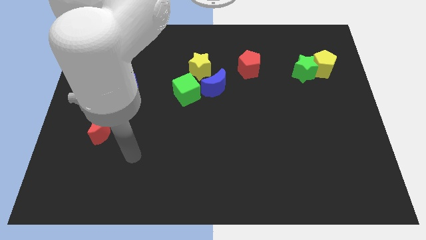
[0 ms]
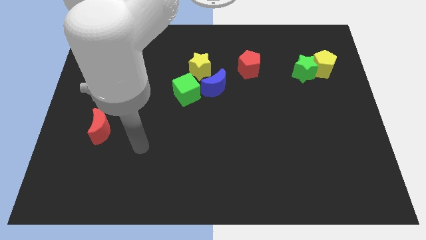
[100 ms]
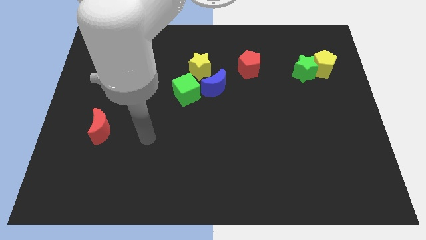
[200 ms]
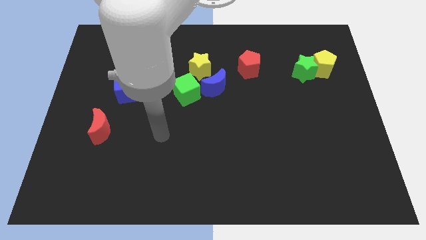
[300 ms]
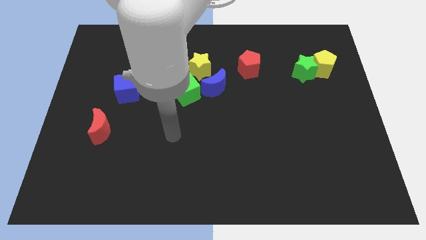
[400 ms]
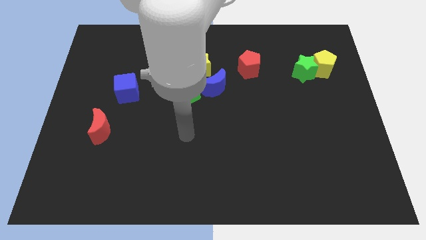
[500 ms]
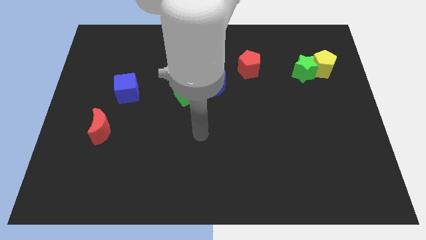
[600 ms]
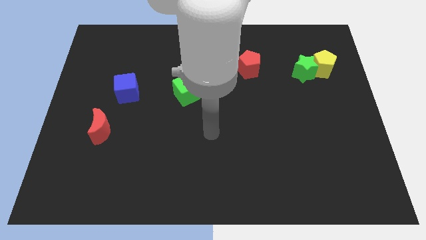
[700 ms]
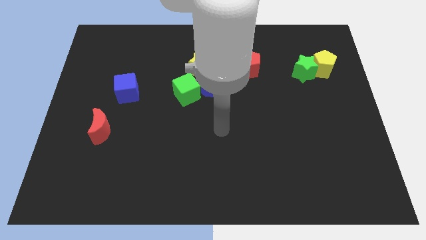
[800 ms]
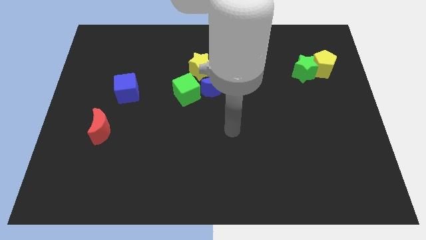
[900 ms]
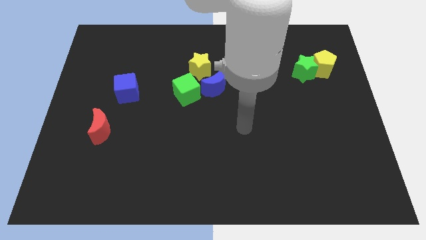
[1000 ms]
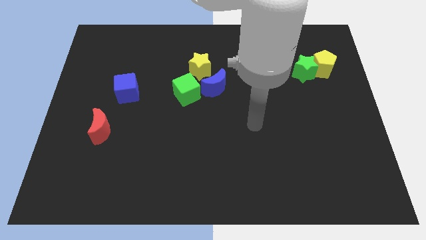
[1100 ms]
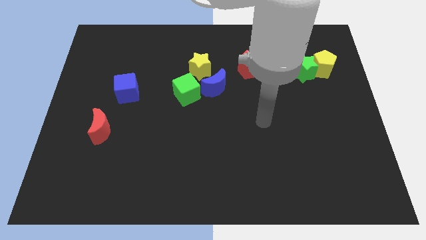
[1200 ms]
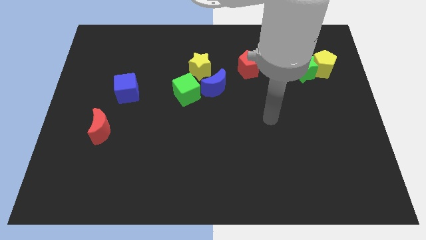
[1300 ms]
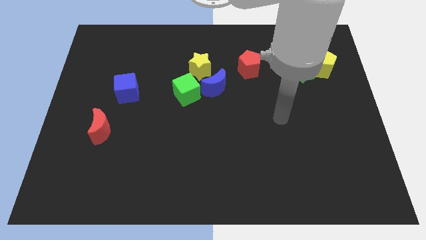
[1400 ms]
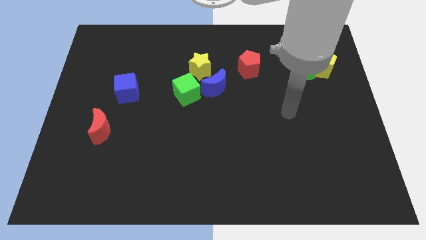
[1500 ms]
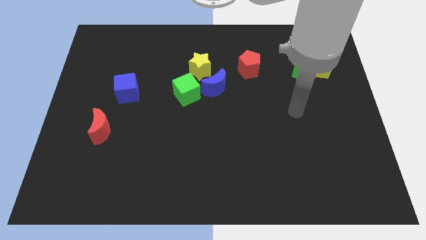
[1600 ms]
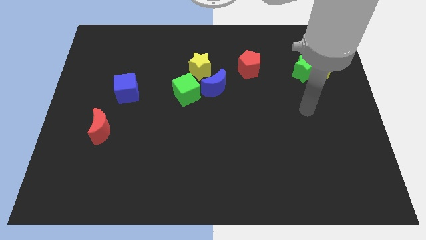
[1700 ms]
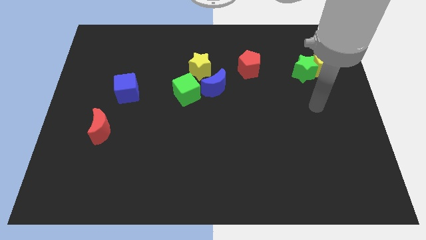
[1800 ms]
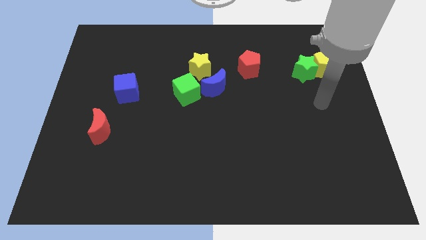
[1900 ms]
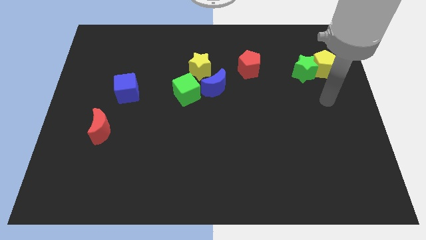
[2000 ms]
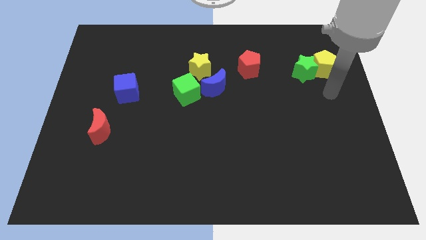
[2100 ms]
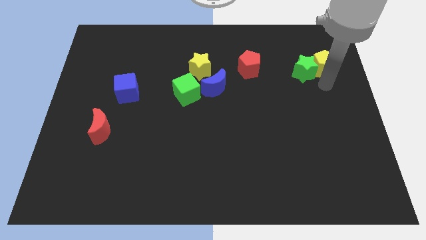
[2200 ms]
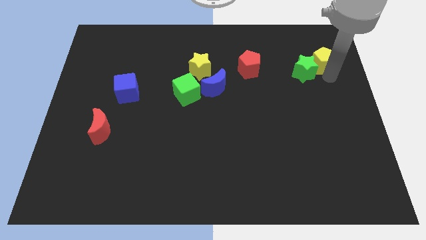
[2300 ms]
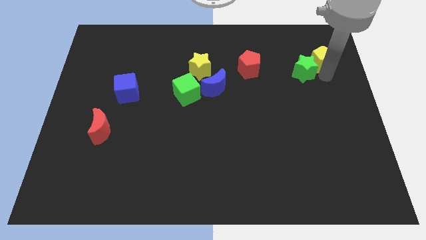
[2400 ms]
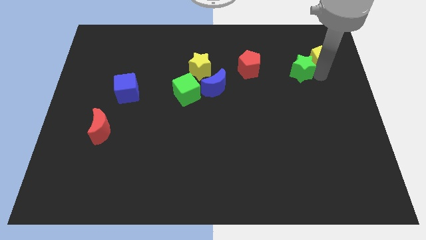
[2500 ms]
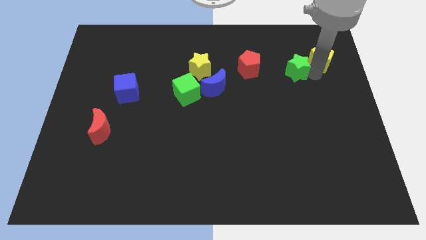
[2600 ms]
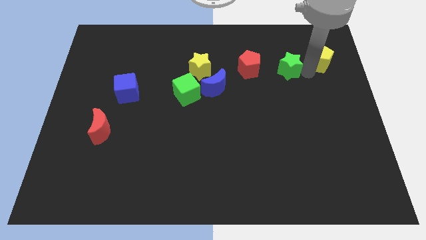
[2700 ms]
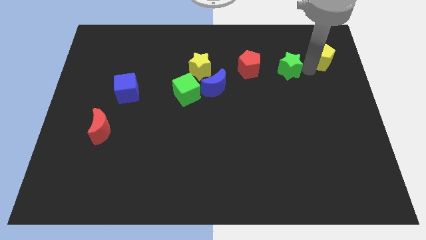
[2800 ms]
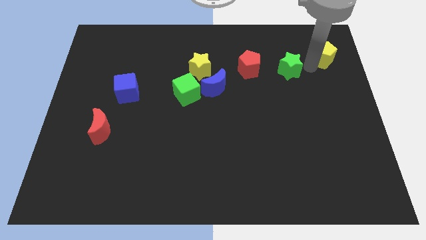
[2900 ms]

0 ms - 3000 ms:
pull the green star apart from the yellow pentagon

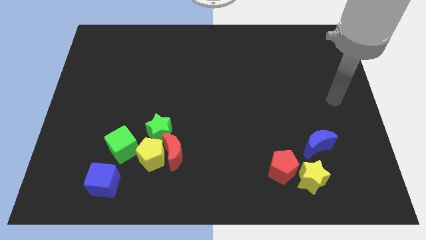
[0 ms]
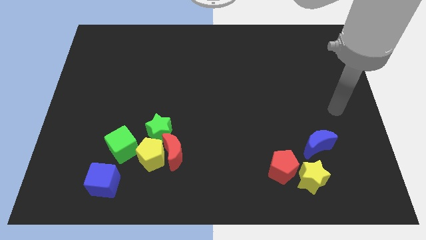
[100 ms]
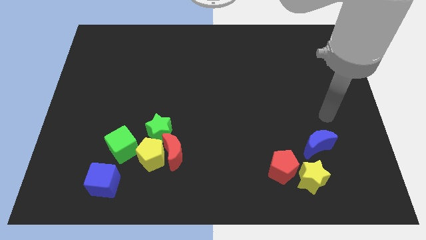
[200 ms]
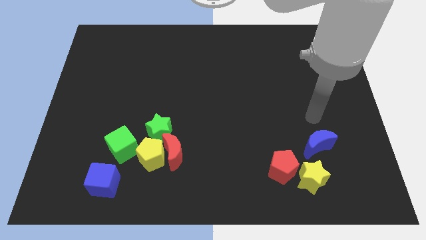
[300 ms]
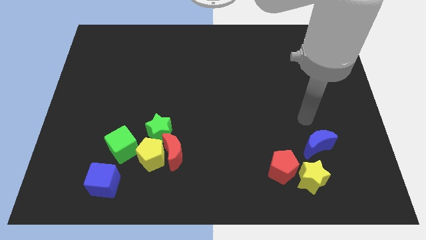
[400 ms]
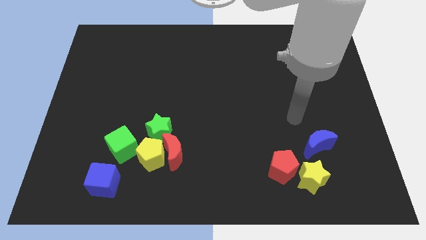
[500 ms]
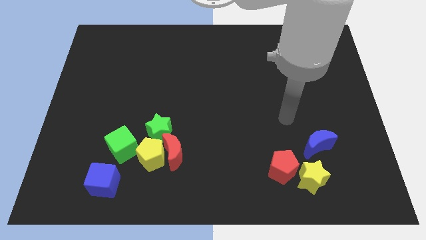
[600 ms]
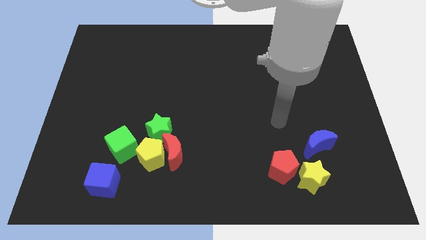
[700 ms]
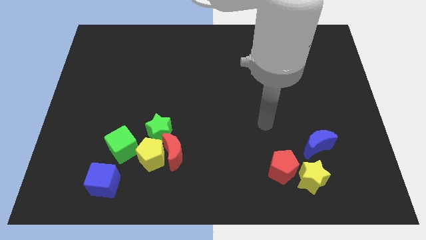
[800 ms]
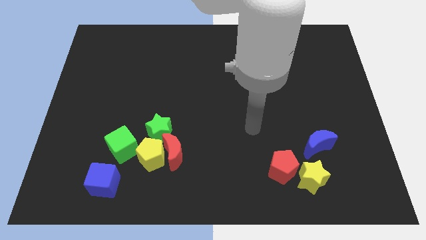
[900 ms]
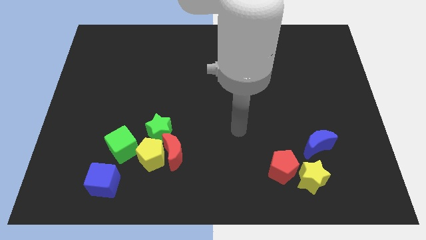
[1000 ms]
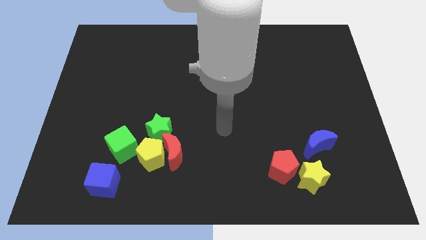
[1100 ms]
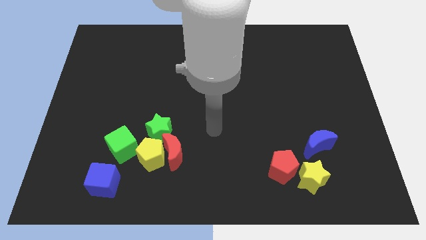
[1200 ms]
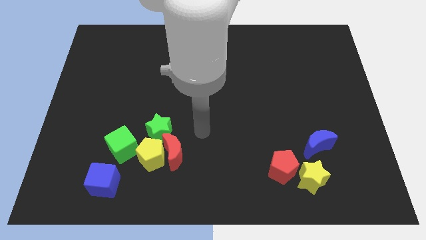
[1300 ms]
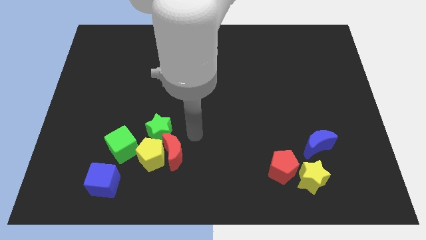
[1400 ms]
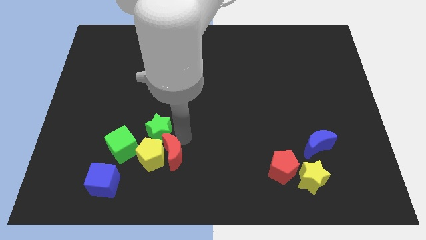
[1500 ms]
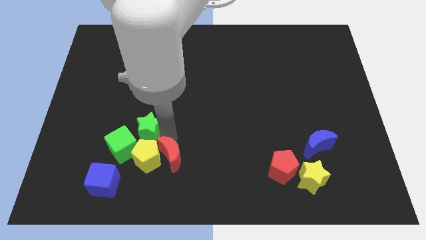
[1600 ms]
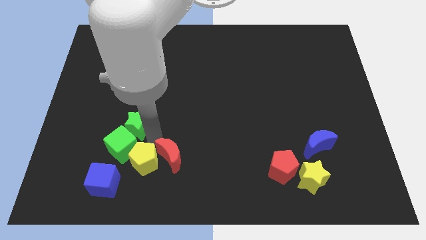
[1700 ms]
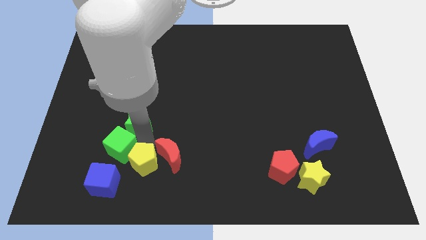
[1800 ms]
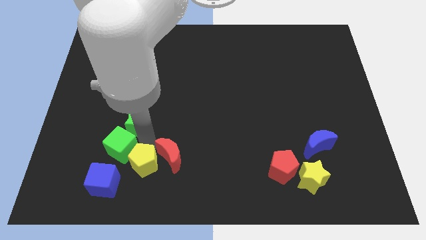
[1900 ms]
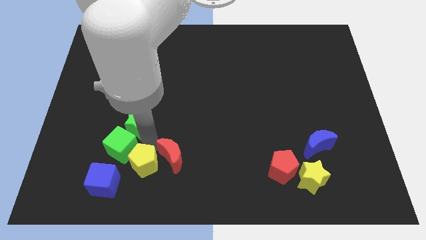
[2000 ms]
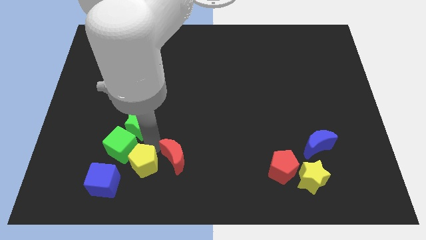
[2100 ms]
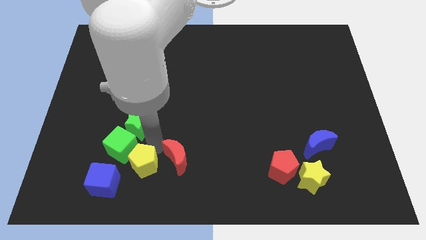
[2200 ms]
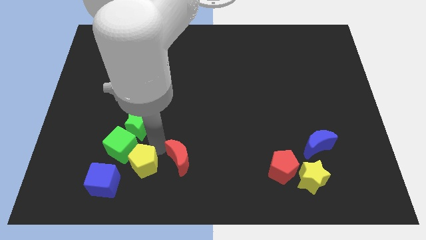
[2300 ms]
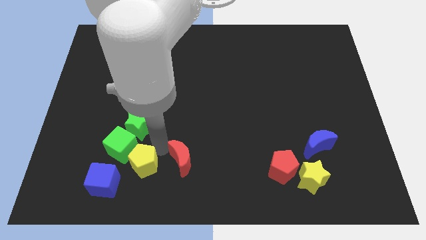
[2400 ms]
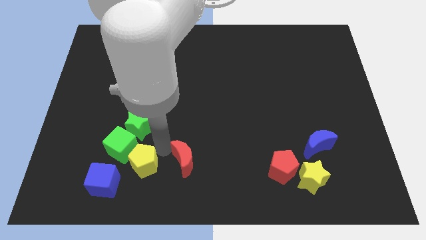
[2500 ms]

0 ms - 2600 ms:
move the red moon away from the yellow pentagon and green star

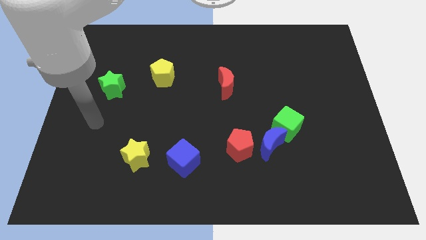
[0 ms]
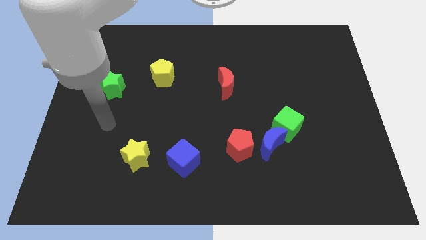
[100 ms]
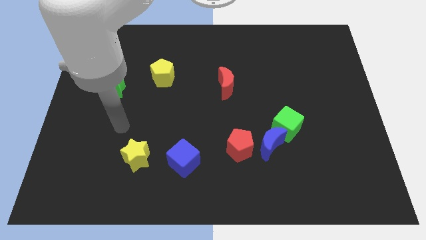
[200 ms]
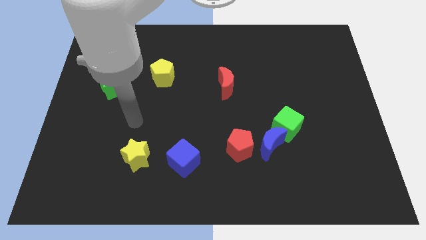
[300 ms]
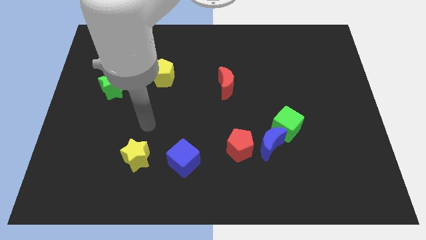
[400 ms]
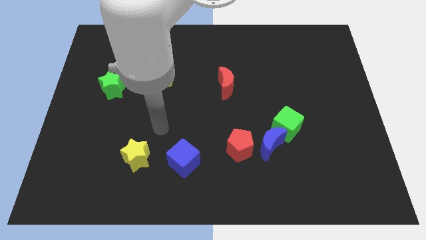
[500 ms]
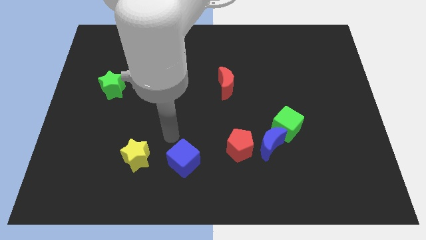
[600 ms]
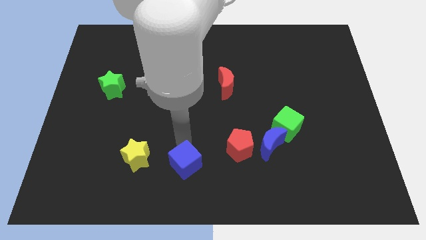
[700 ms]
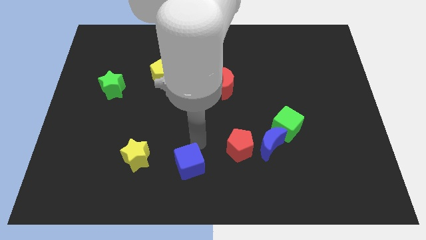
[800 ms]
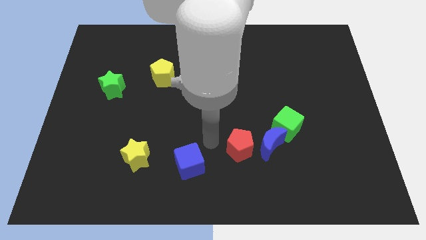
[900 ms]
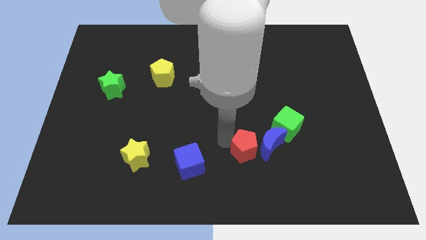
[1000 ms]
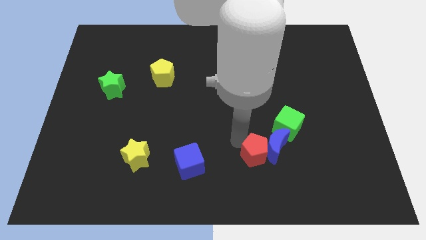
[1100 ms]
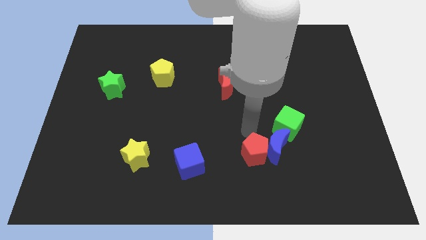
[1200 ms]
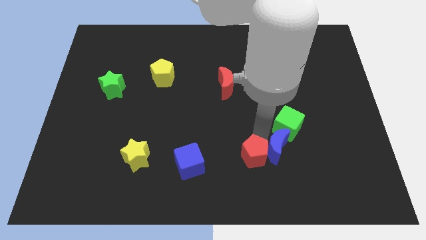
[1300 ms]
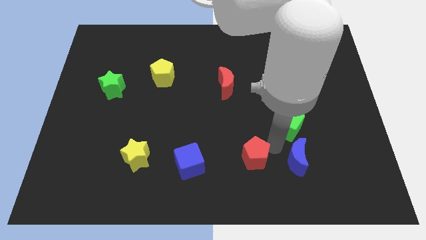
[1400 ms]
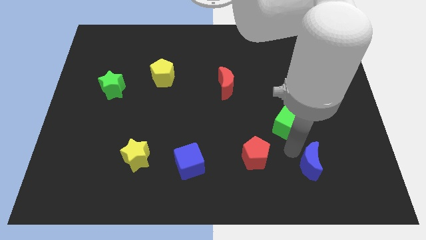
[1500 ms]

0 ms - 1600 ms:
move the green cube away from the blue moon

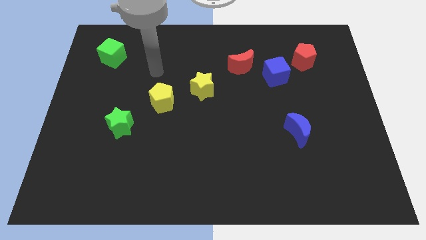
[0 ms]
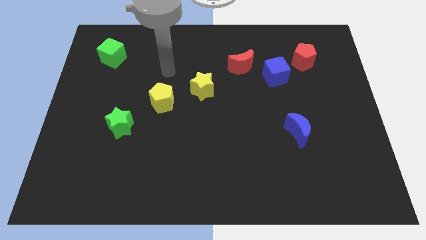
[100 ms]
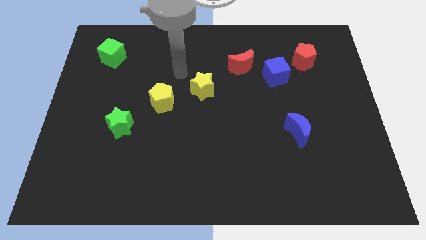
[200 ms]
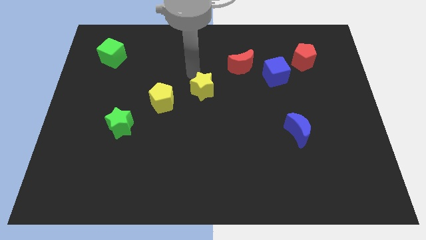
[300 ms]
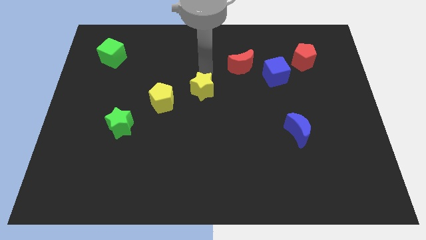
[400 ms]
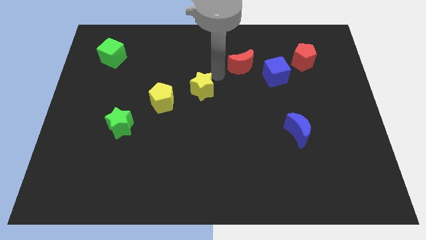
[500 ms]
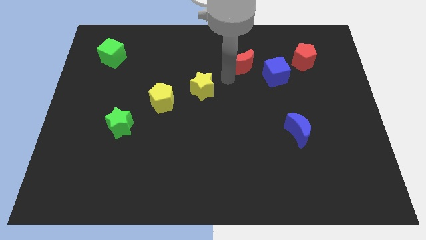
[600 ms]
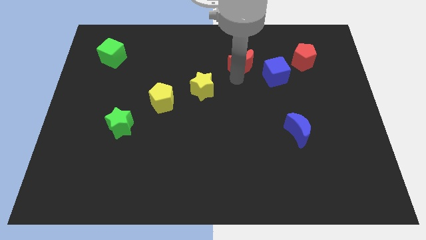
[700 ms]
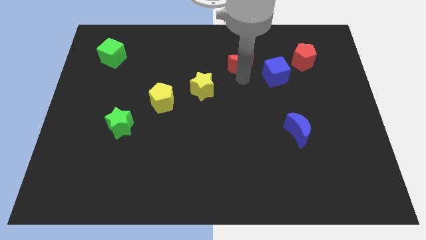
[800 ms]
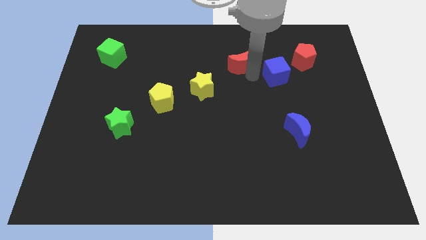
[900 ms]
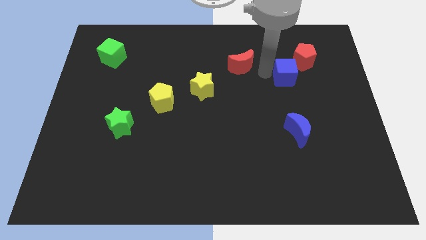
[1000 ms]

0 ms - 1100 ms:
separate the red moon from the blue cube

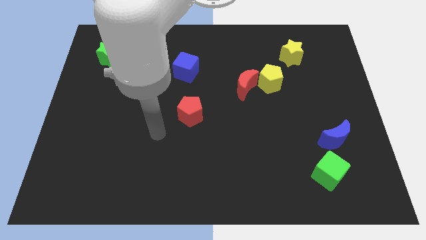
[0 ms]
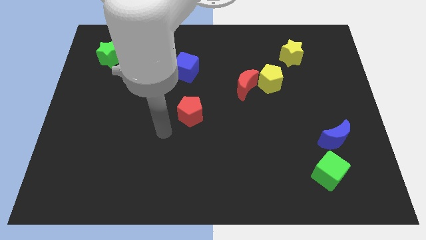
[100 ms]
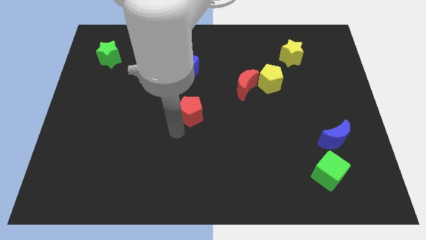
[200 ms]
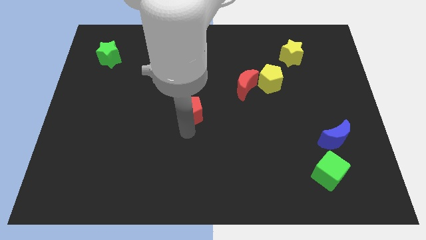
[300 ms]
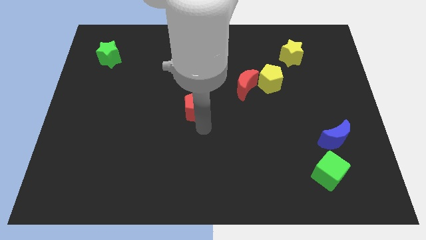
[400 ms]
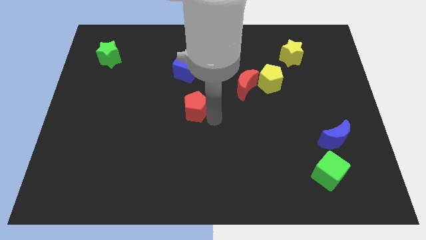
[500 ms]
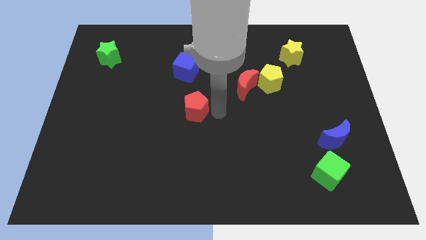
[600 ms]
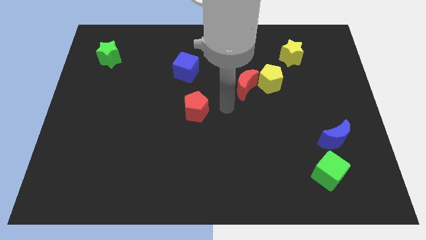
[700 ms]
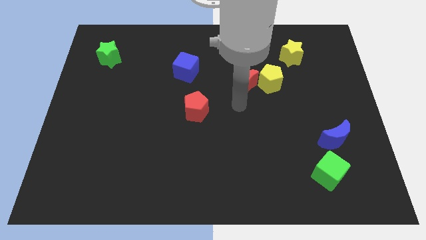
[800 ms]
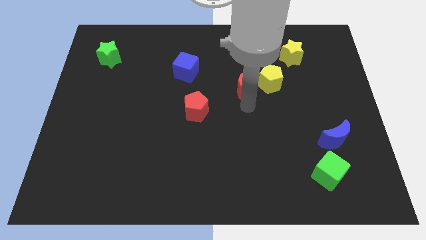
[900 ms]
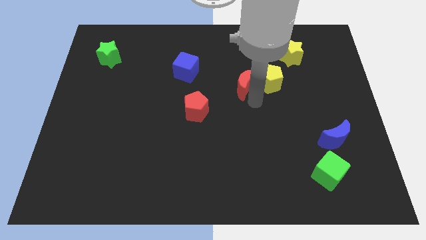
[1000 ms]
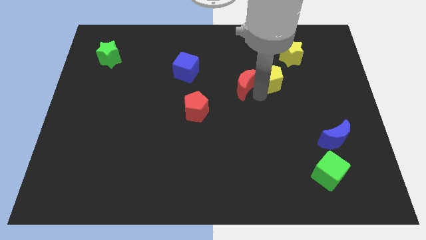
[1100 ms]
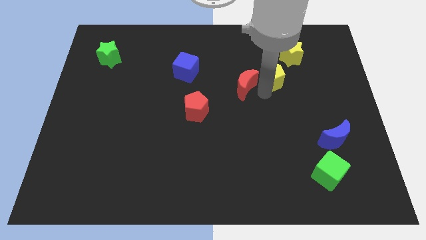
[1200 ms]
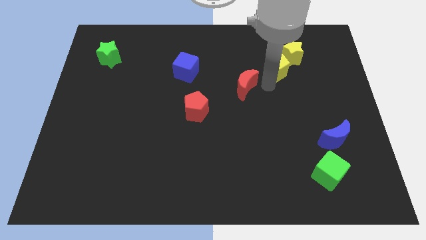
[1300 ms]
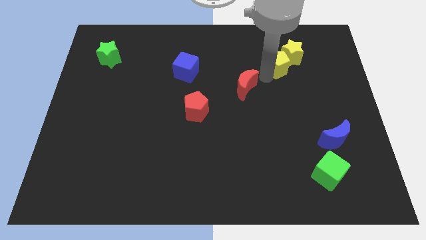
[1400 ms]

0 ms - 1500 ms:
pull the red moon apart from the yellow pentagon
